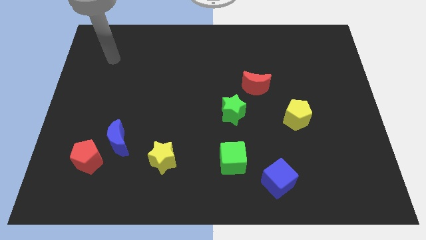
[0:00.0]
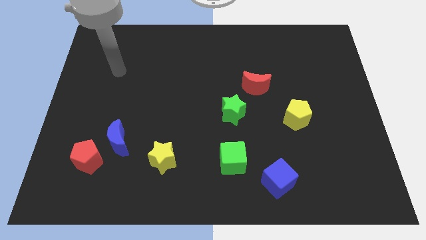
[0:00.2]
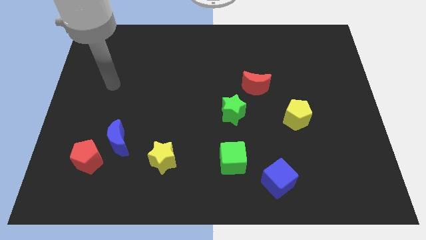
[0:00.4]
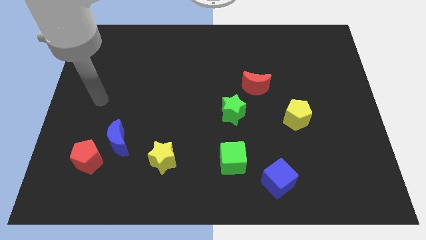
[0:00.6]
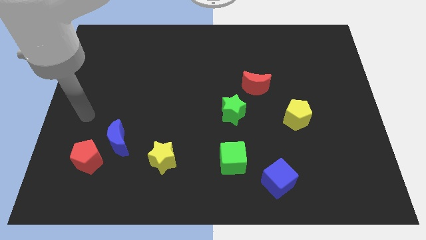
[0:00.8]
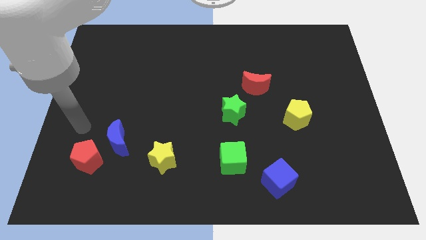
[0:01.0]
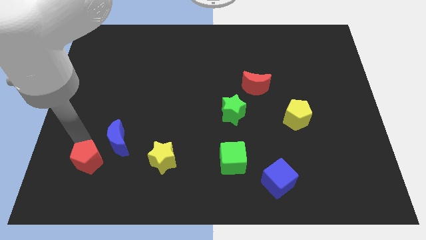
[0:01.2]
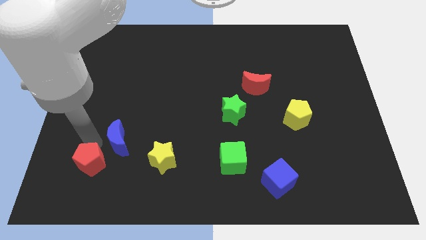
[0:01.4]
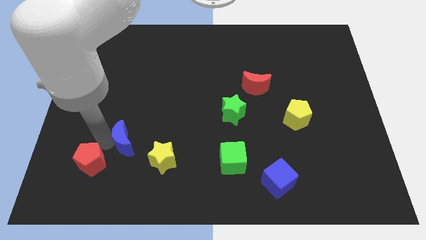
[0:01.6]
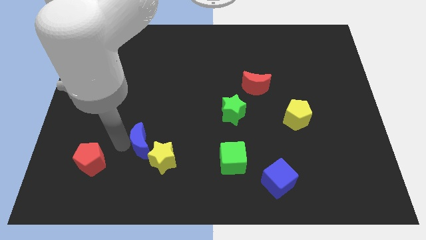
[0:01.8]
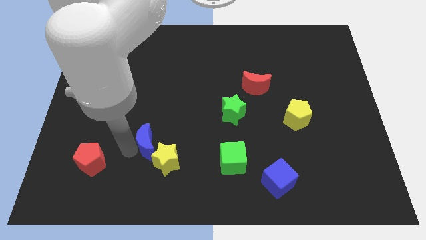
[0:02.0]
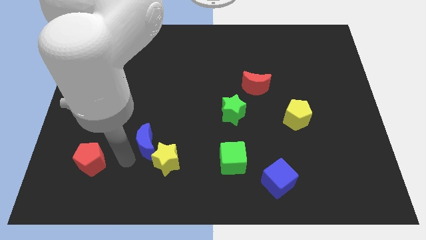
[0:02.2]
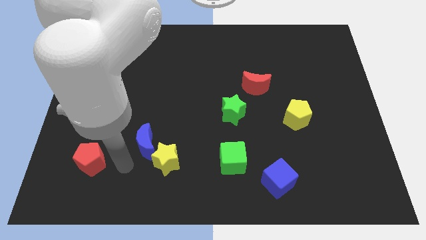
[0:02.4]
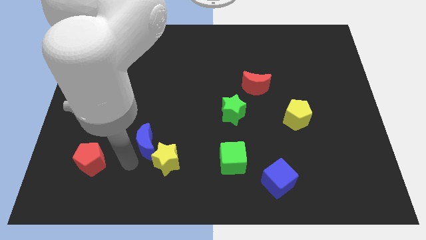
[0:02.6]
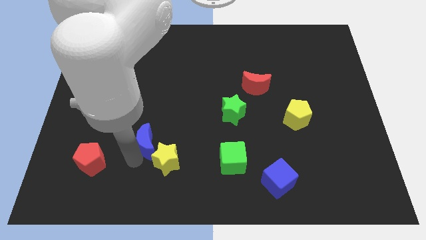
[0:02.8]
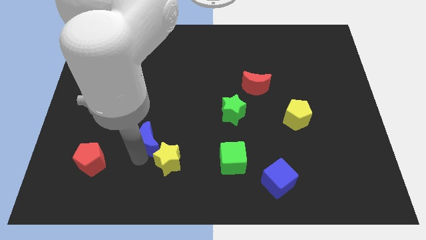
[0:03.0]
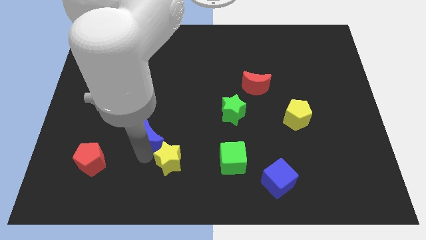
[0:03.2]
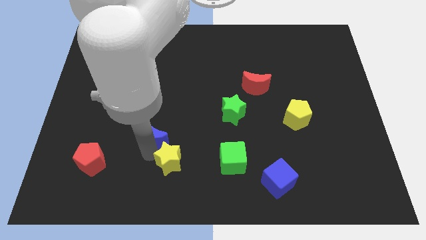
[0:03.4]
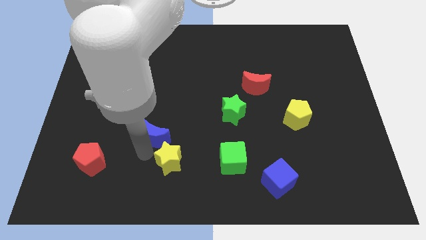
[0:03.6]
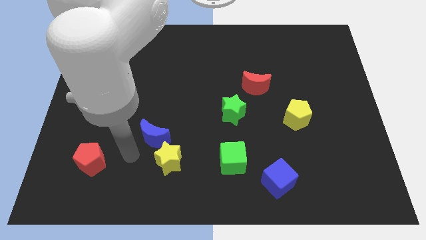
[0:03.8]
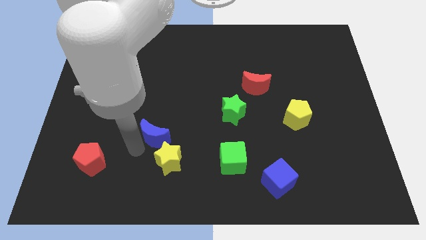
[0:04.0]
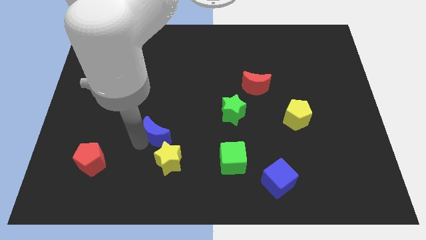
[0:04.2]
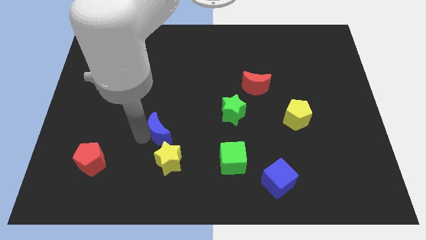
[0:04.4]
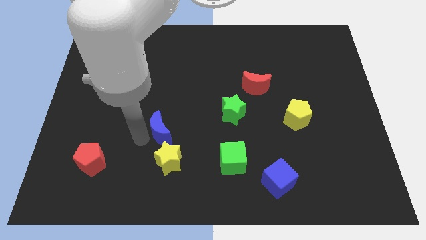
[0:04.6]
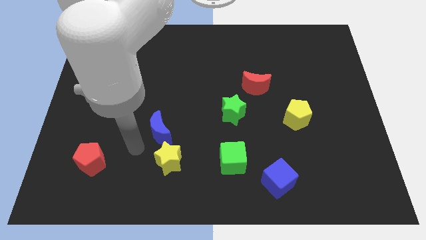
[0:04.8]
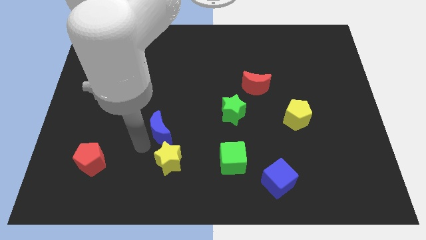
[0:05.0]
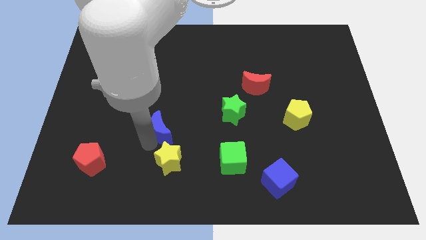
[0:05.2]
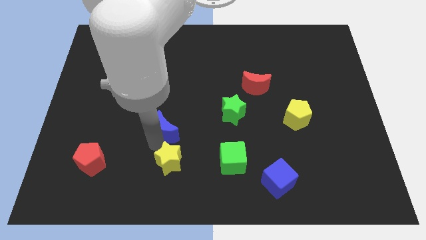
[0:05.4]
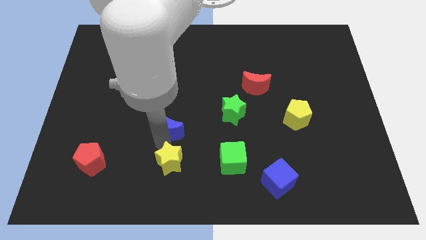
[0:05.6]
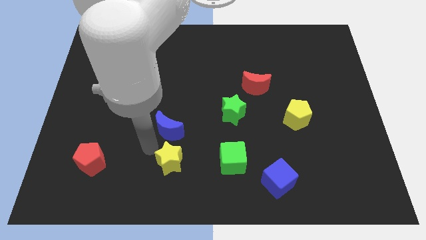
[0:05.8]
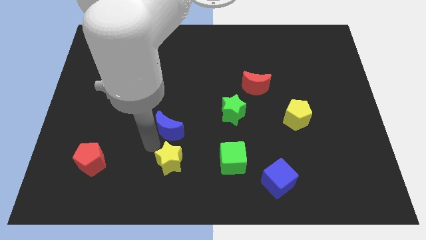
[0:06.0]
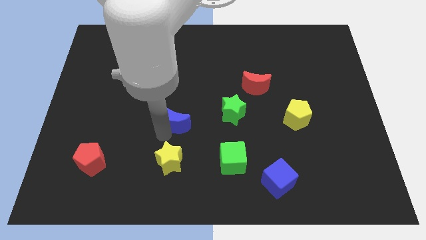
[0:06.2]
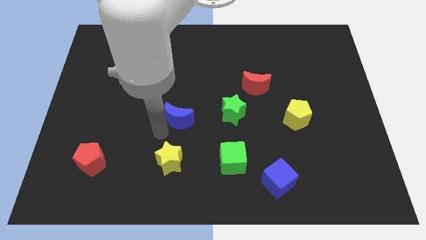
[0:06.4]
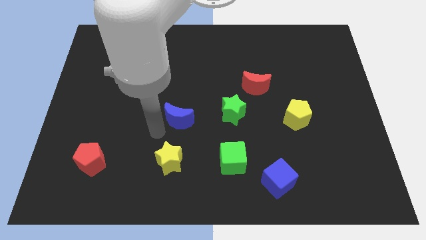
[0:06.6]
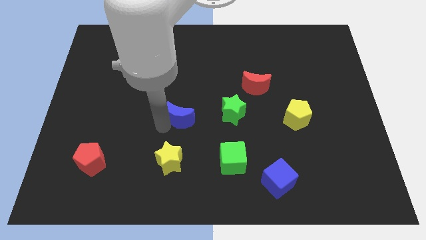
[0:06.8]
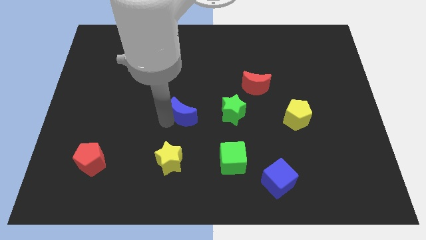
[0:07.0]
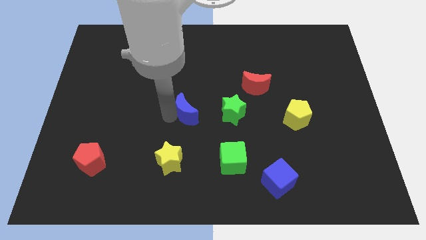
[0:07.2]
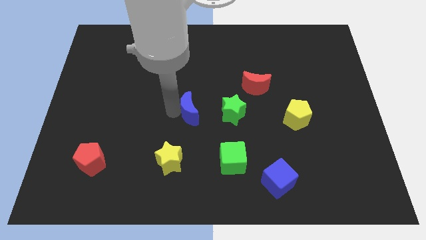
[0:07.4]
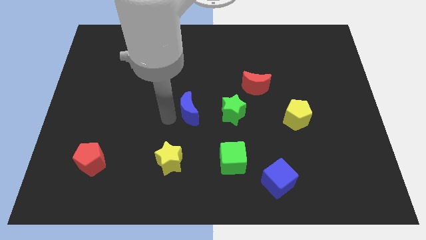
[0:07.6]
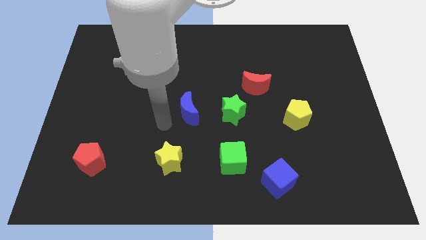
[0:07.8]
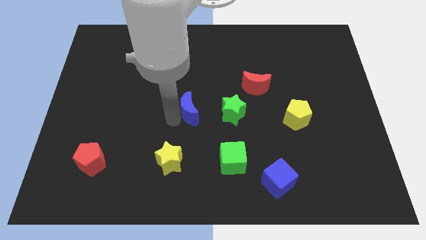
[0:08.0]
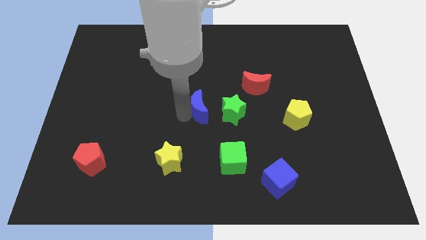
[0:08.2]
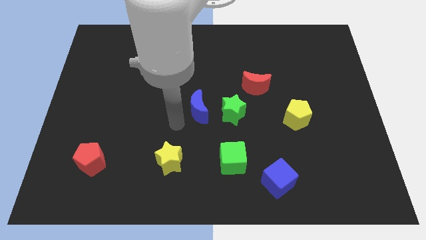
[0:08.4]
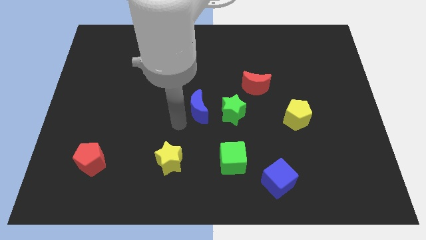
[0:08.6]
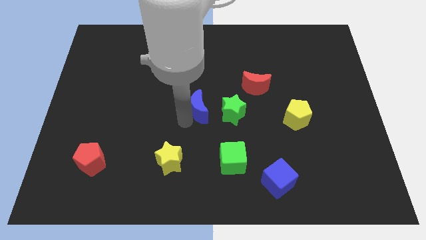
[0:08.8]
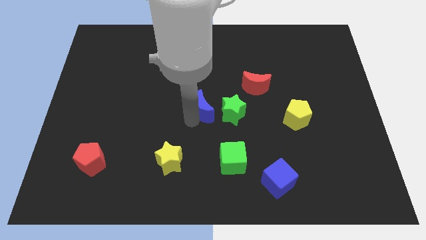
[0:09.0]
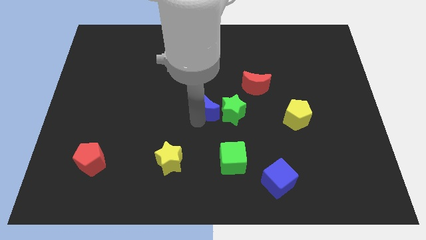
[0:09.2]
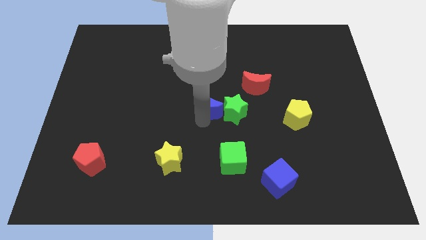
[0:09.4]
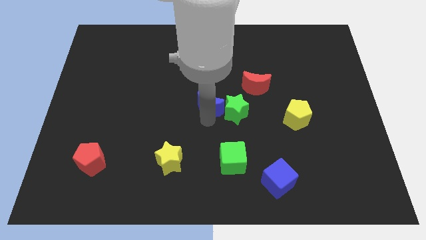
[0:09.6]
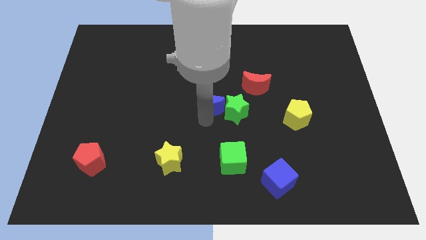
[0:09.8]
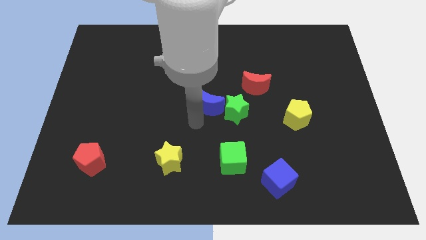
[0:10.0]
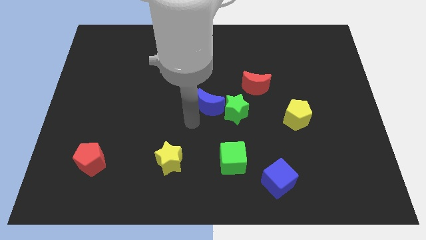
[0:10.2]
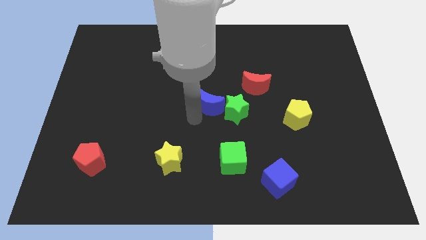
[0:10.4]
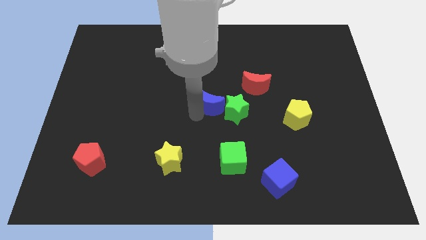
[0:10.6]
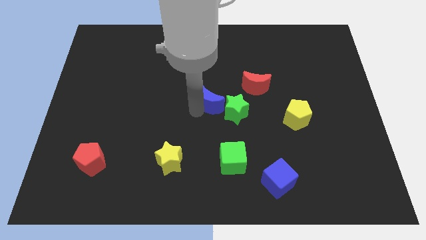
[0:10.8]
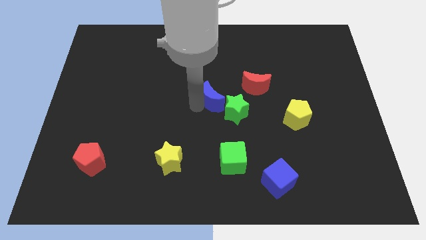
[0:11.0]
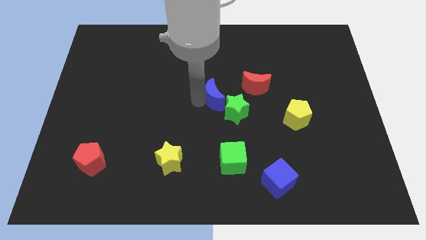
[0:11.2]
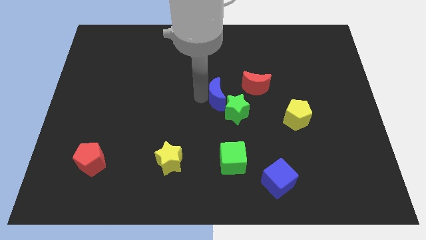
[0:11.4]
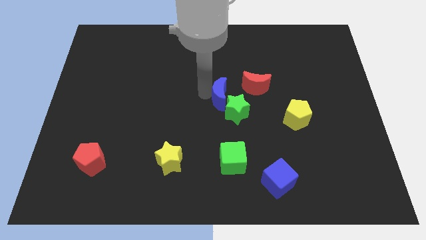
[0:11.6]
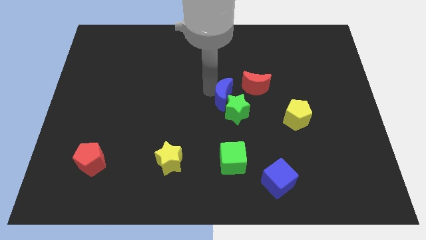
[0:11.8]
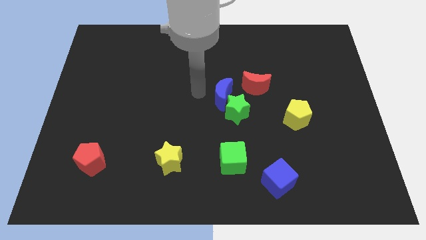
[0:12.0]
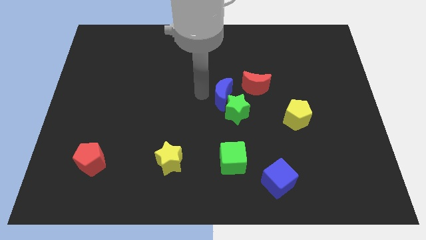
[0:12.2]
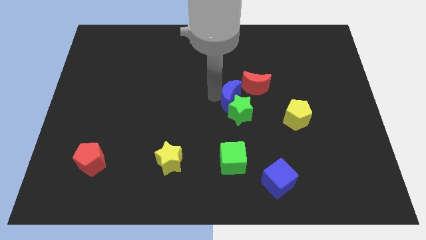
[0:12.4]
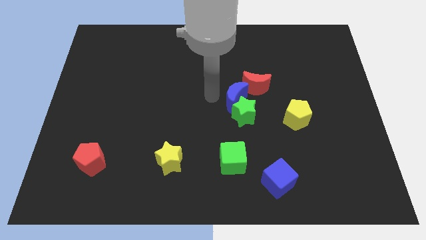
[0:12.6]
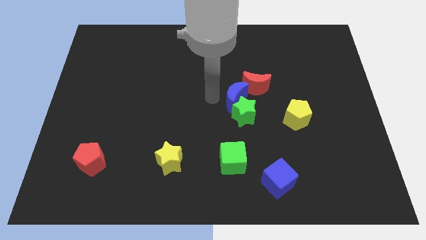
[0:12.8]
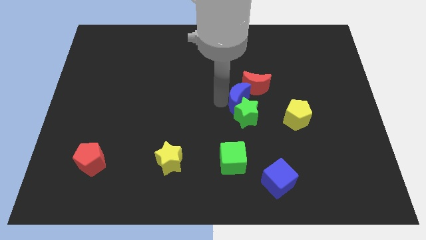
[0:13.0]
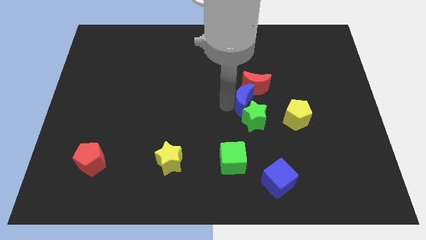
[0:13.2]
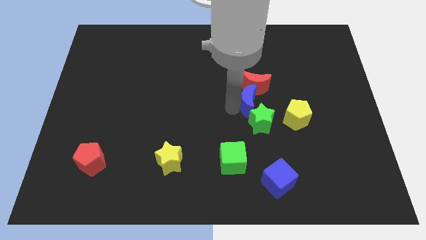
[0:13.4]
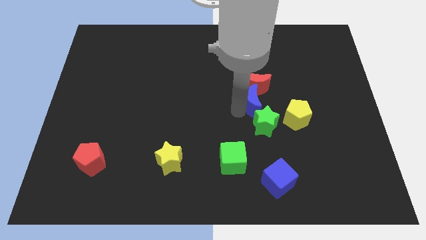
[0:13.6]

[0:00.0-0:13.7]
put the blue moon diagonally down and to the right of the red moon
